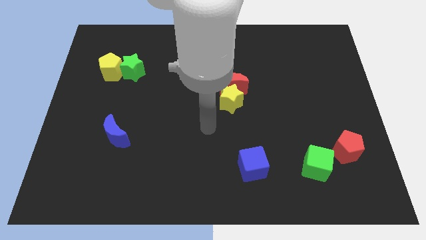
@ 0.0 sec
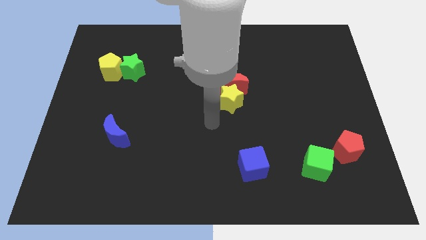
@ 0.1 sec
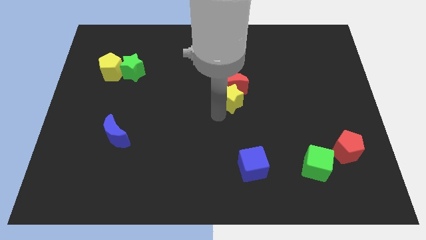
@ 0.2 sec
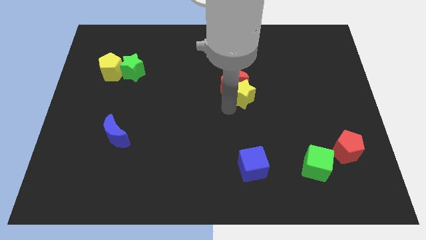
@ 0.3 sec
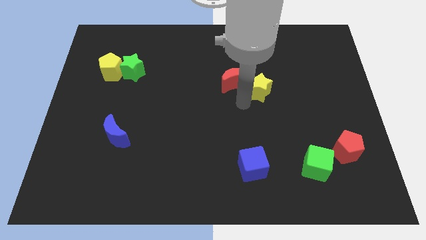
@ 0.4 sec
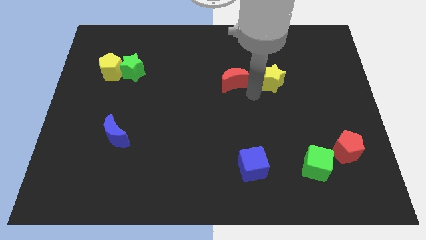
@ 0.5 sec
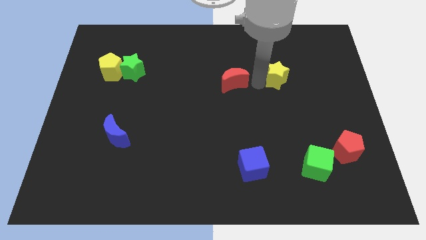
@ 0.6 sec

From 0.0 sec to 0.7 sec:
pull the red moon apart from the yellow star

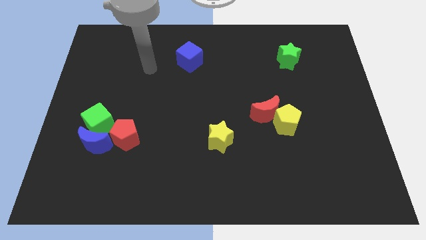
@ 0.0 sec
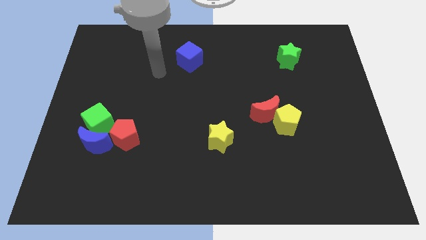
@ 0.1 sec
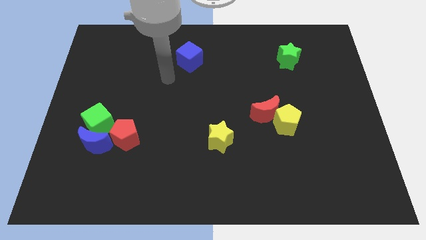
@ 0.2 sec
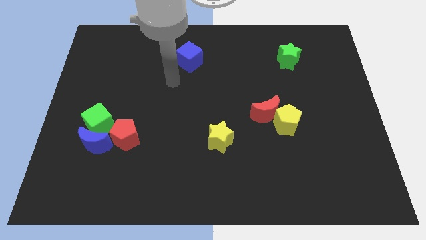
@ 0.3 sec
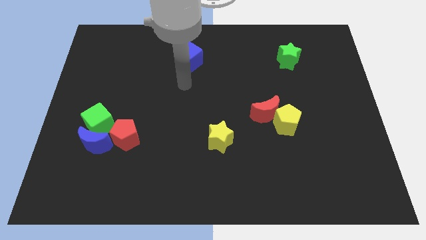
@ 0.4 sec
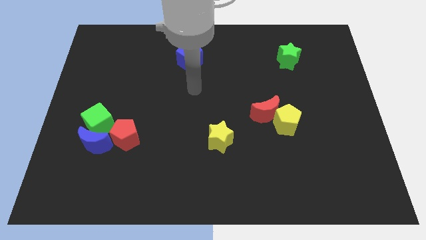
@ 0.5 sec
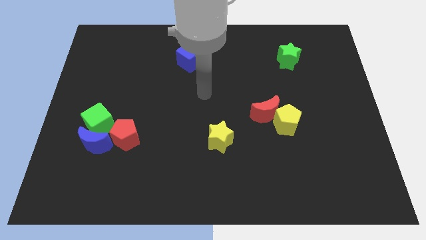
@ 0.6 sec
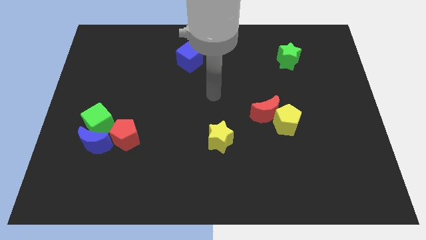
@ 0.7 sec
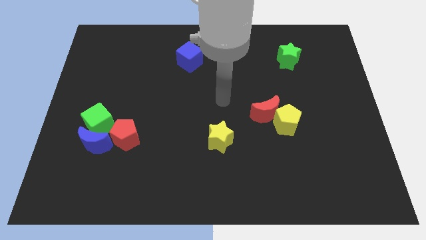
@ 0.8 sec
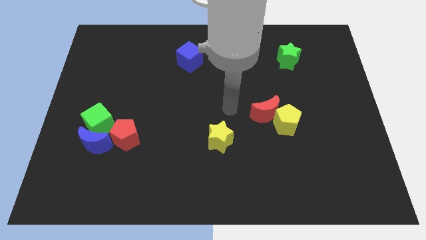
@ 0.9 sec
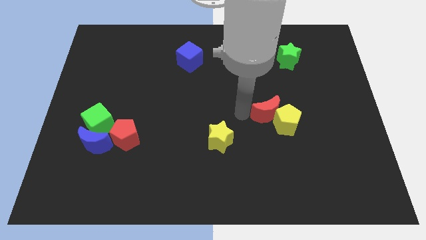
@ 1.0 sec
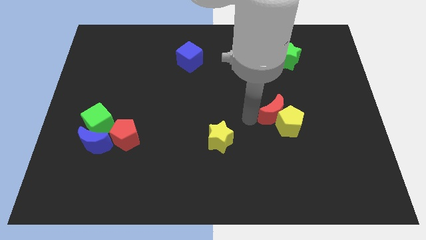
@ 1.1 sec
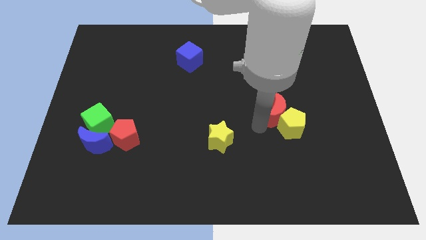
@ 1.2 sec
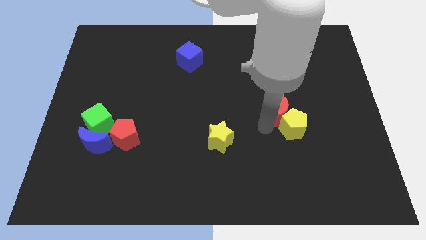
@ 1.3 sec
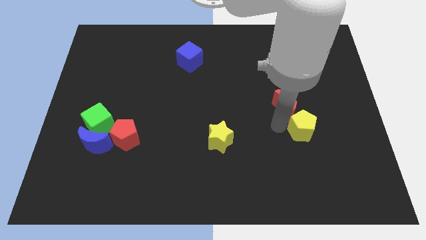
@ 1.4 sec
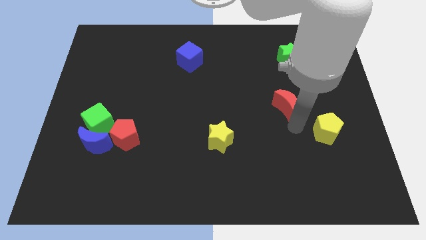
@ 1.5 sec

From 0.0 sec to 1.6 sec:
separate the red moon from the yellow pentagon

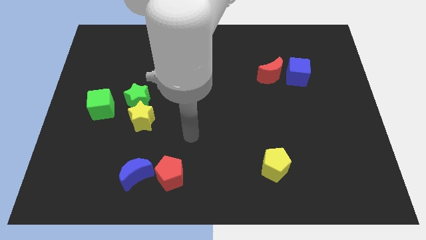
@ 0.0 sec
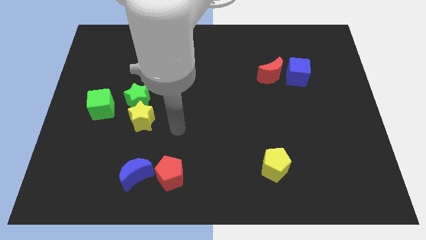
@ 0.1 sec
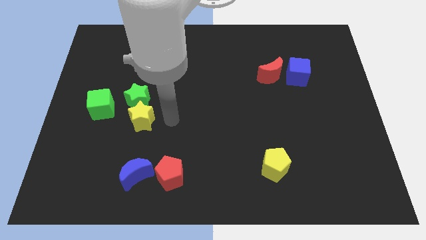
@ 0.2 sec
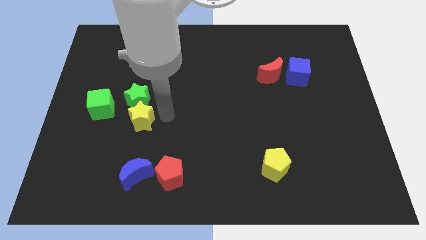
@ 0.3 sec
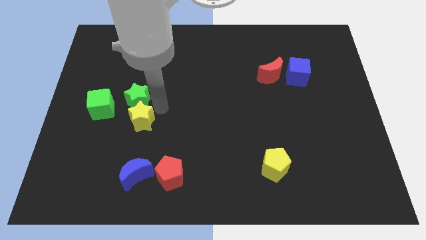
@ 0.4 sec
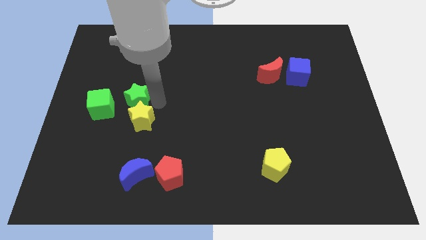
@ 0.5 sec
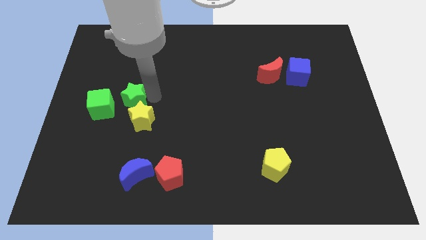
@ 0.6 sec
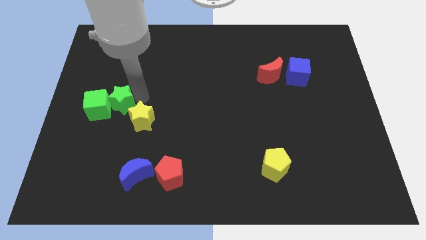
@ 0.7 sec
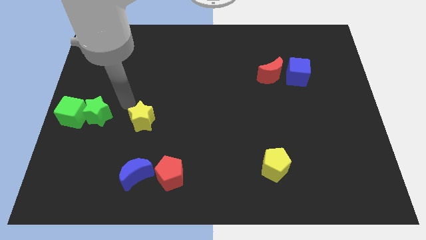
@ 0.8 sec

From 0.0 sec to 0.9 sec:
pull the yellow star apart from the green star

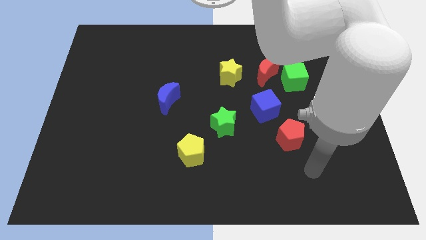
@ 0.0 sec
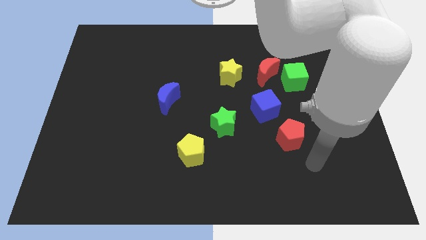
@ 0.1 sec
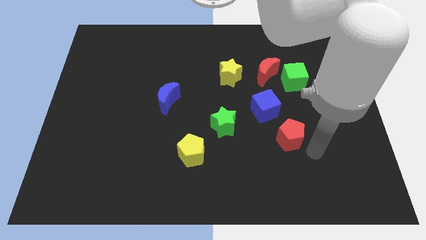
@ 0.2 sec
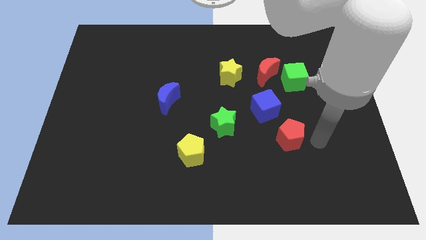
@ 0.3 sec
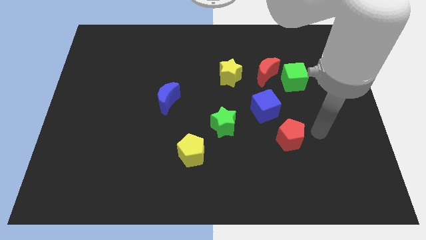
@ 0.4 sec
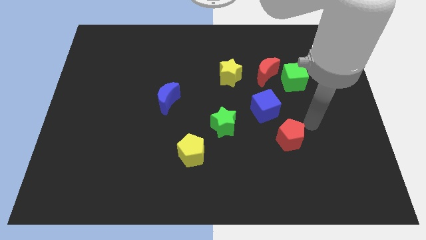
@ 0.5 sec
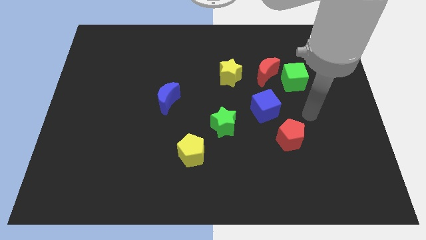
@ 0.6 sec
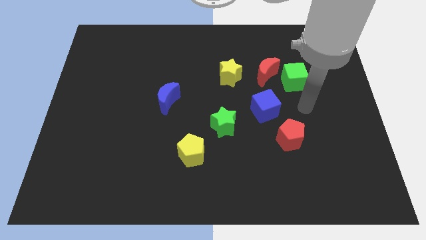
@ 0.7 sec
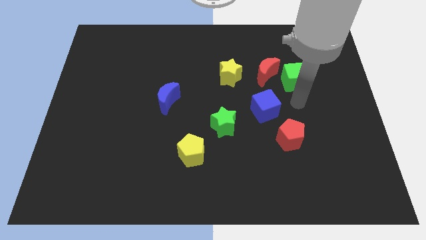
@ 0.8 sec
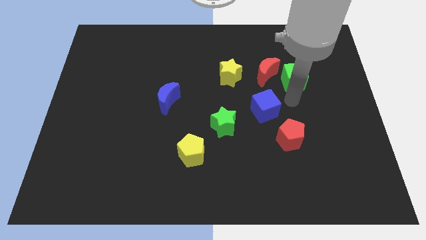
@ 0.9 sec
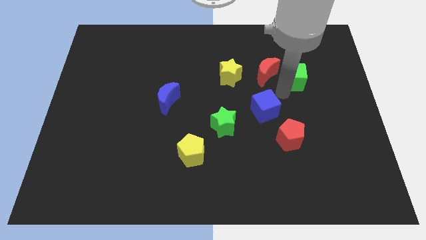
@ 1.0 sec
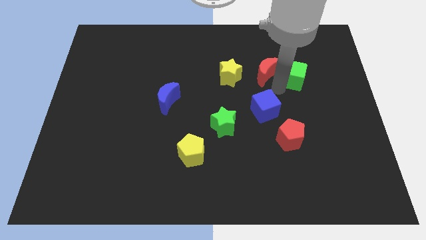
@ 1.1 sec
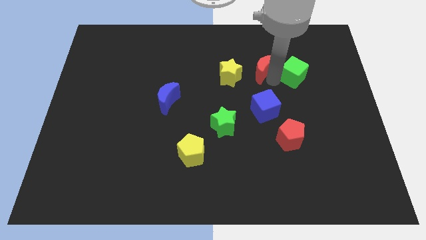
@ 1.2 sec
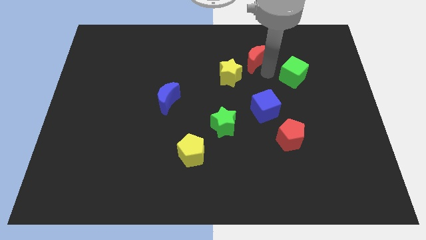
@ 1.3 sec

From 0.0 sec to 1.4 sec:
move the green cube away from the red moon

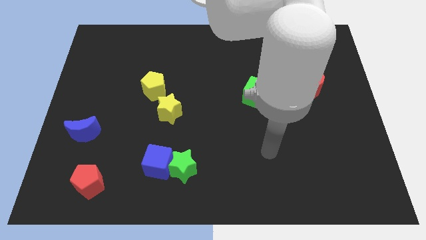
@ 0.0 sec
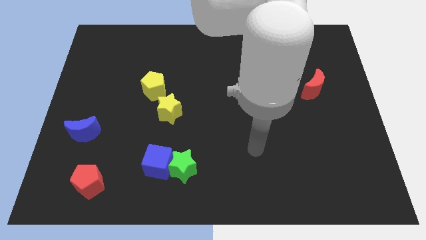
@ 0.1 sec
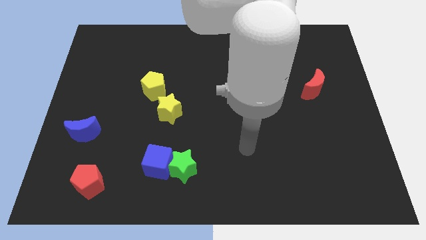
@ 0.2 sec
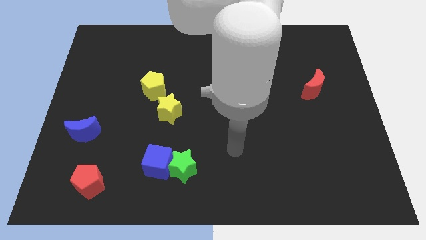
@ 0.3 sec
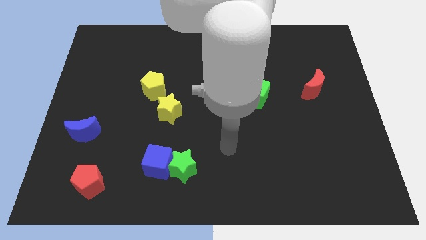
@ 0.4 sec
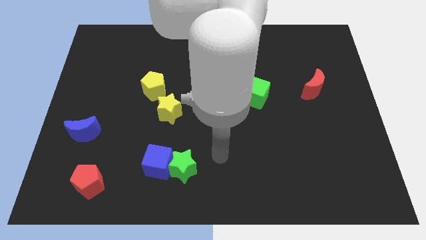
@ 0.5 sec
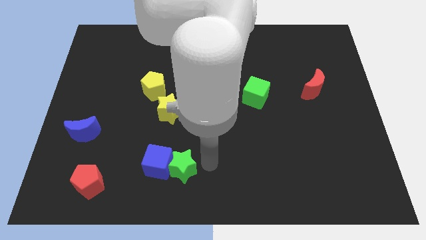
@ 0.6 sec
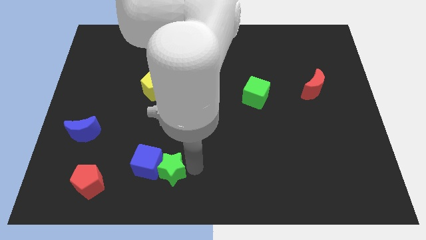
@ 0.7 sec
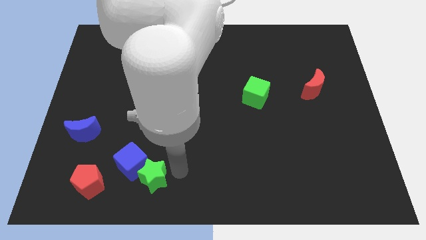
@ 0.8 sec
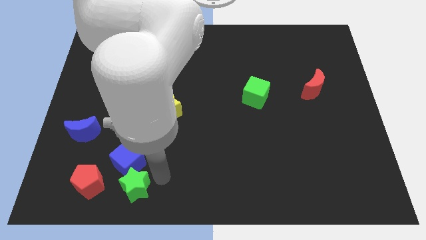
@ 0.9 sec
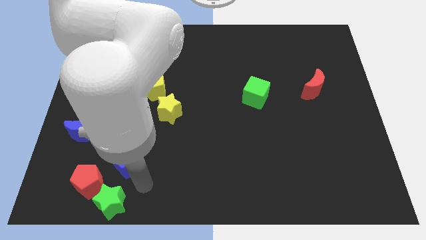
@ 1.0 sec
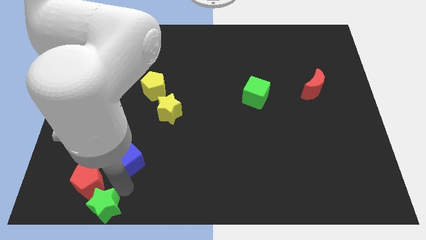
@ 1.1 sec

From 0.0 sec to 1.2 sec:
separate the blue cube from the green star

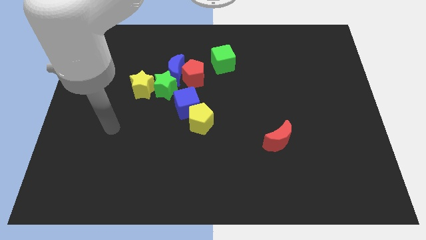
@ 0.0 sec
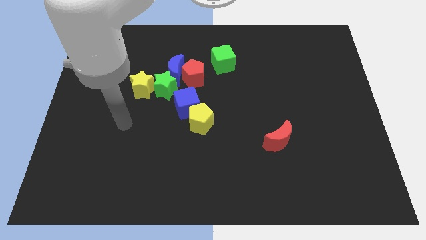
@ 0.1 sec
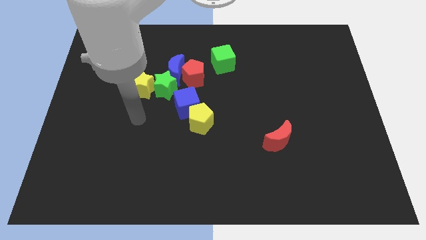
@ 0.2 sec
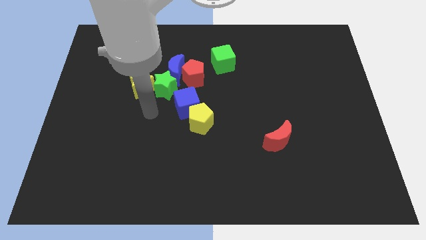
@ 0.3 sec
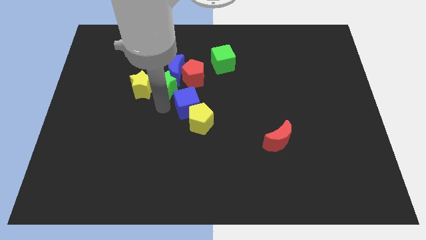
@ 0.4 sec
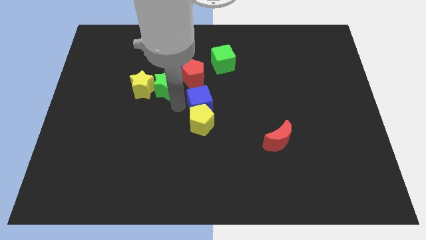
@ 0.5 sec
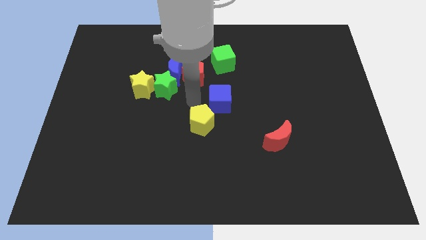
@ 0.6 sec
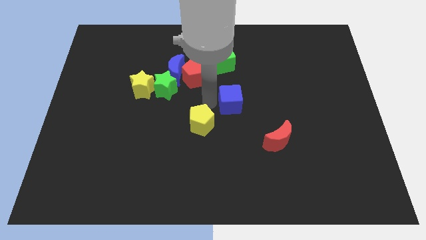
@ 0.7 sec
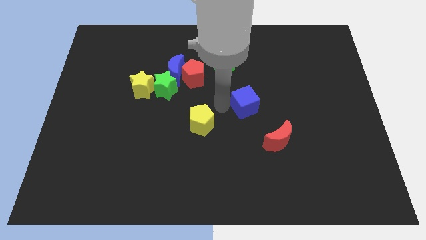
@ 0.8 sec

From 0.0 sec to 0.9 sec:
pull the yellow pentagon apart from the blue cube

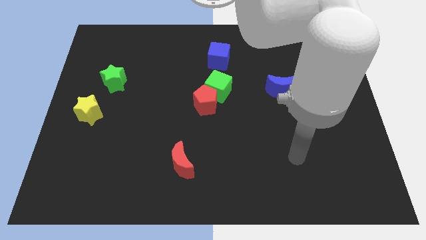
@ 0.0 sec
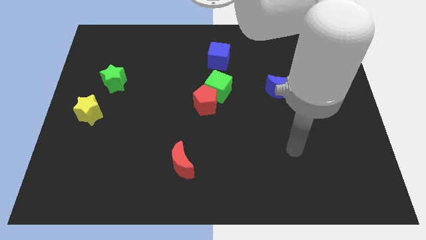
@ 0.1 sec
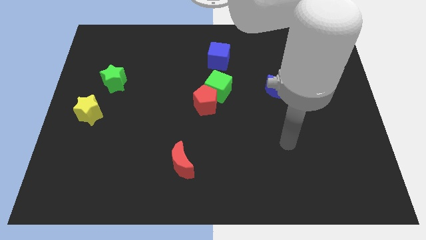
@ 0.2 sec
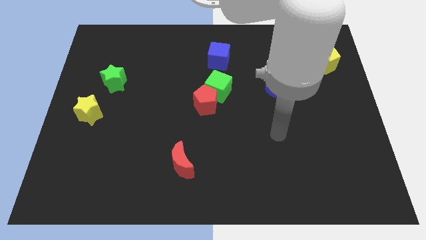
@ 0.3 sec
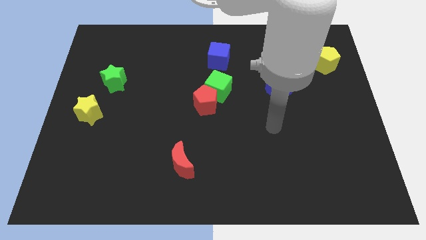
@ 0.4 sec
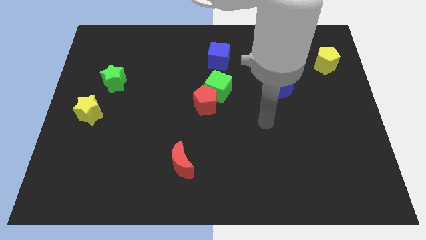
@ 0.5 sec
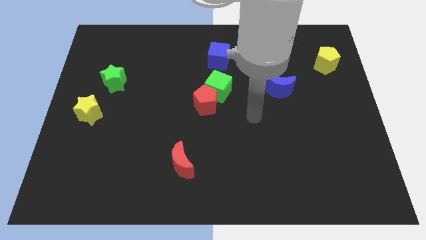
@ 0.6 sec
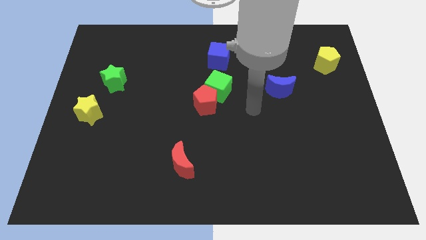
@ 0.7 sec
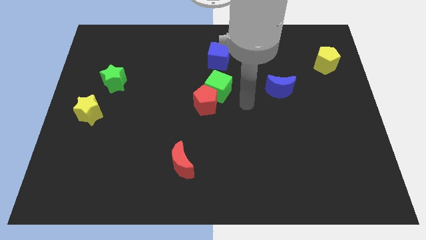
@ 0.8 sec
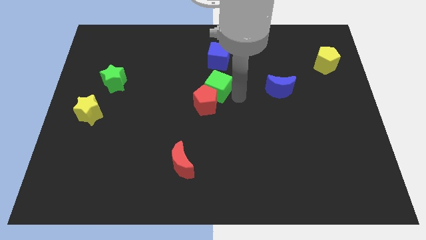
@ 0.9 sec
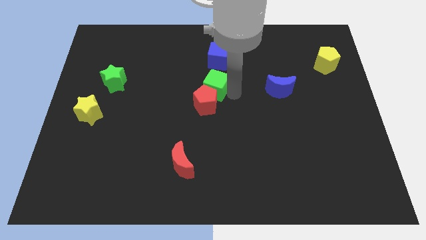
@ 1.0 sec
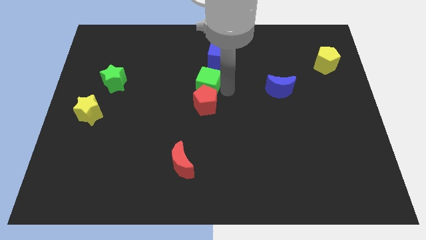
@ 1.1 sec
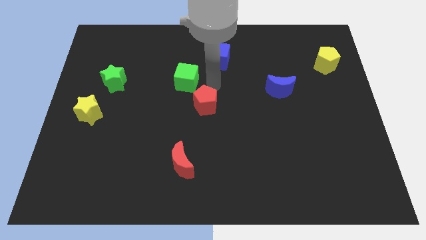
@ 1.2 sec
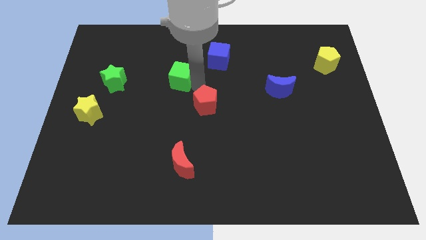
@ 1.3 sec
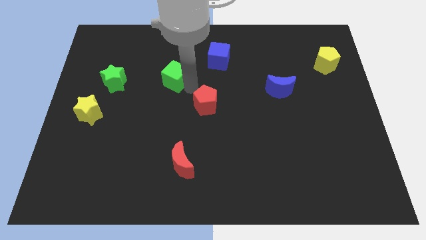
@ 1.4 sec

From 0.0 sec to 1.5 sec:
separate the red pentagon from the green cube

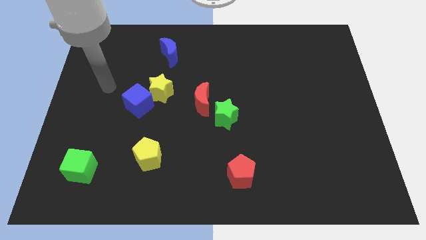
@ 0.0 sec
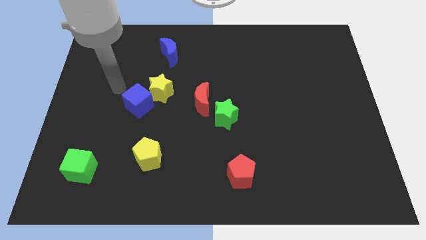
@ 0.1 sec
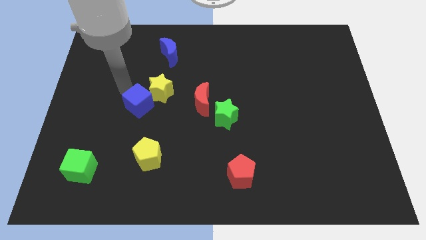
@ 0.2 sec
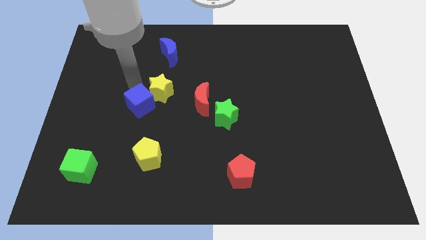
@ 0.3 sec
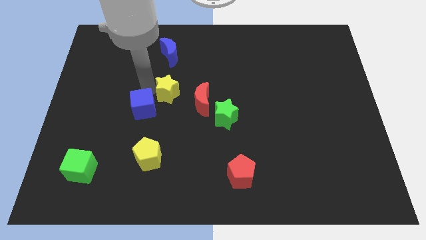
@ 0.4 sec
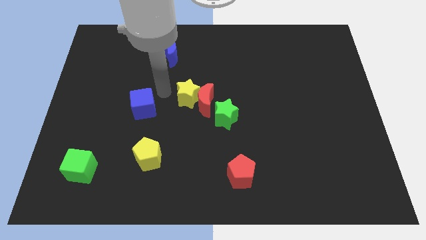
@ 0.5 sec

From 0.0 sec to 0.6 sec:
separate the blue cube from the yellow star

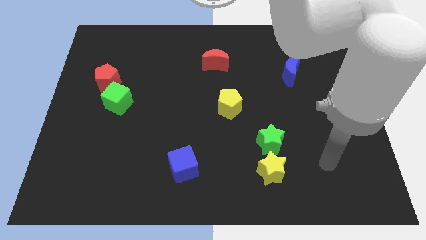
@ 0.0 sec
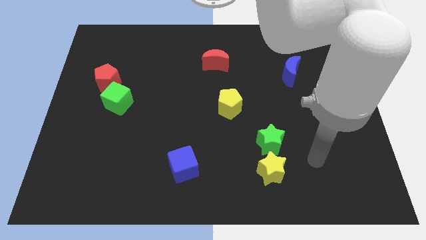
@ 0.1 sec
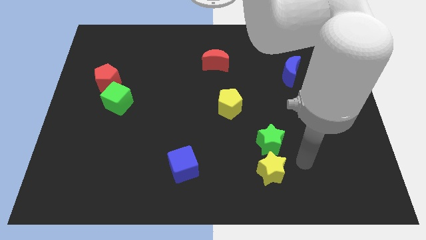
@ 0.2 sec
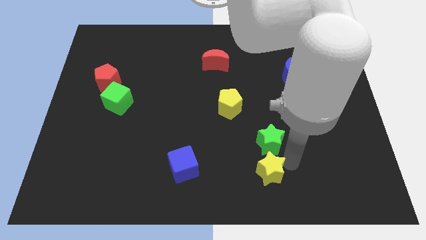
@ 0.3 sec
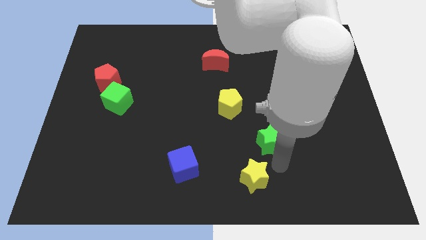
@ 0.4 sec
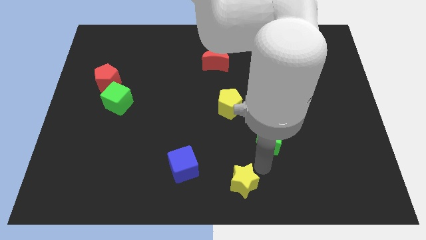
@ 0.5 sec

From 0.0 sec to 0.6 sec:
separate the green star from the yellow star
